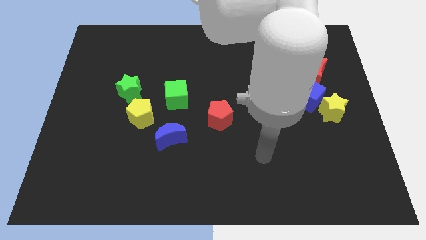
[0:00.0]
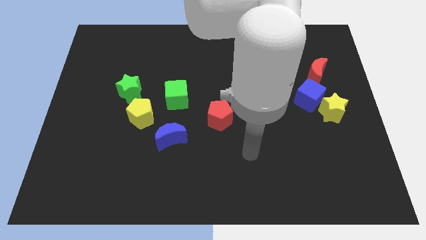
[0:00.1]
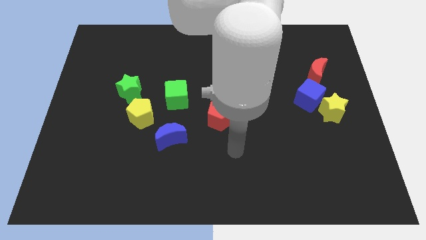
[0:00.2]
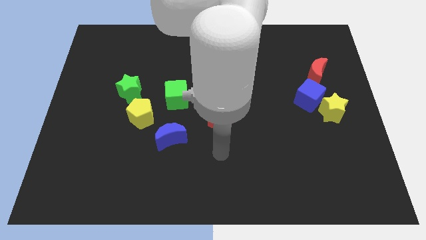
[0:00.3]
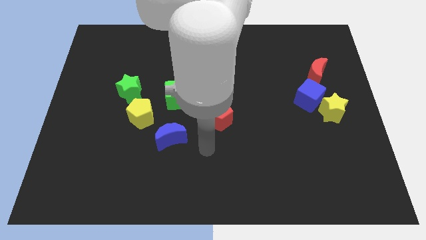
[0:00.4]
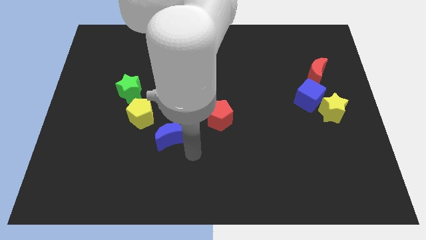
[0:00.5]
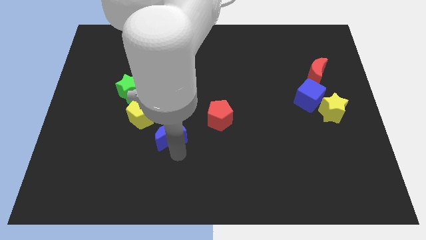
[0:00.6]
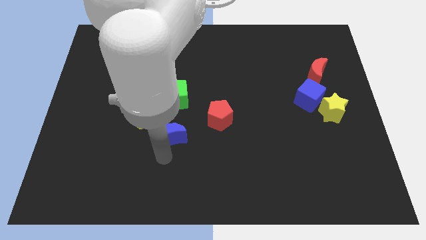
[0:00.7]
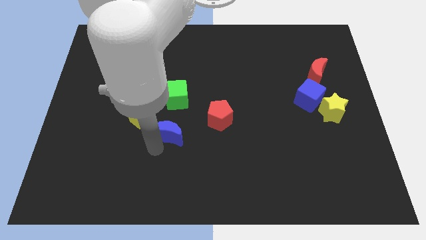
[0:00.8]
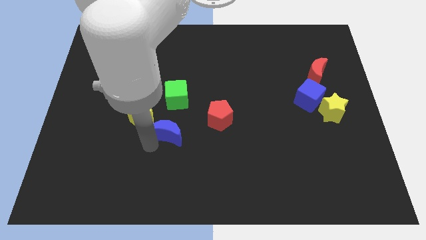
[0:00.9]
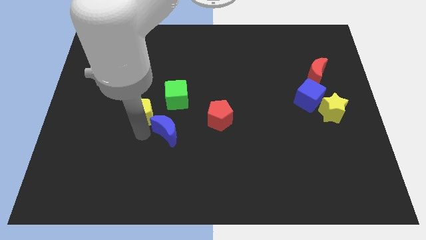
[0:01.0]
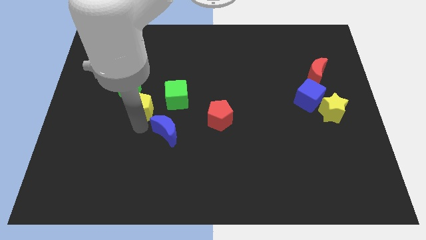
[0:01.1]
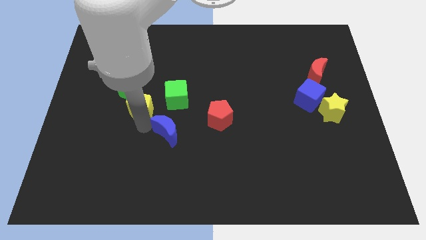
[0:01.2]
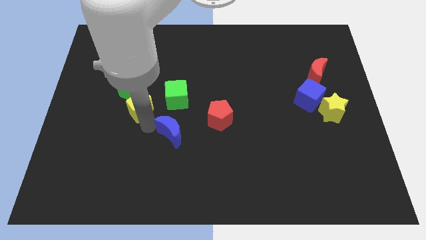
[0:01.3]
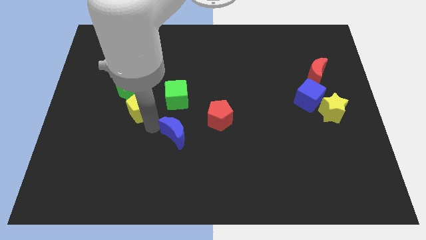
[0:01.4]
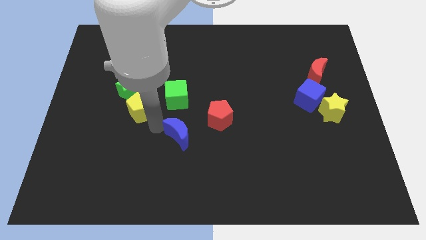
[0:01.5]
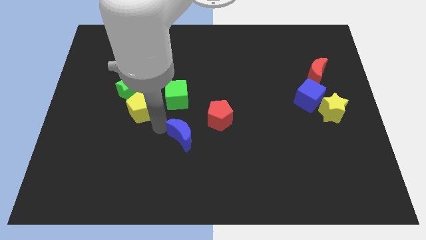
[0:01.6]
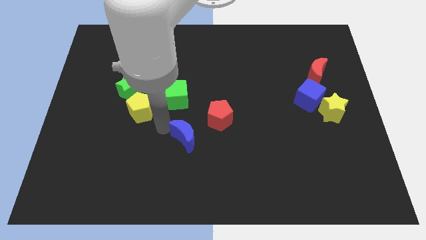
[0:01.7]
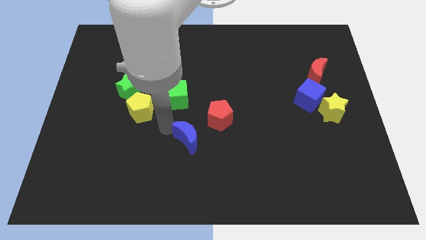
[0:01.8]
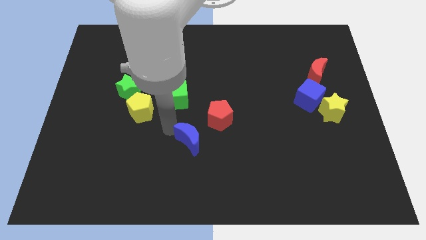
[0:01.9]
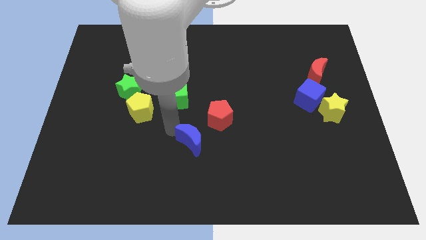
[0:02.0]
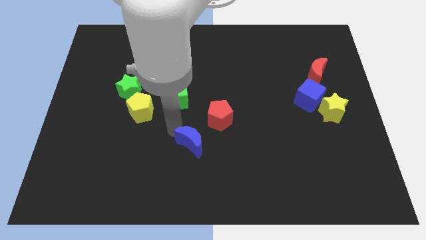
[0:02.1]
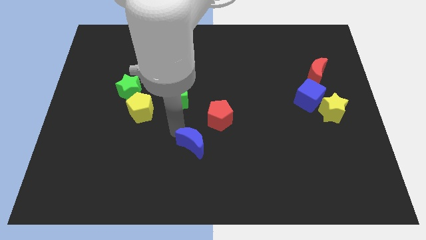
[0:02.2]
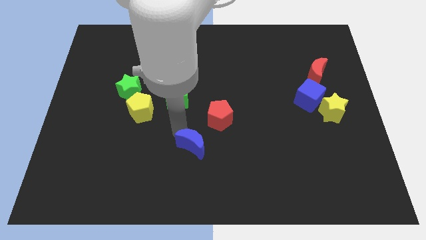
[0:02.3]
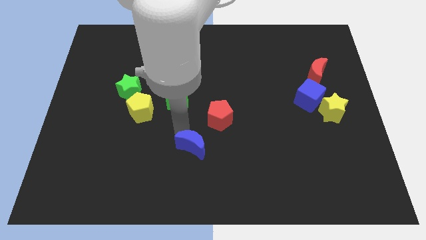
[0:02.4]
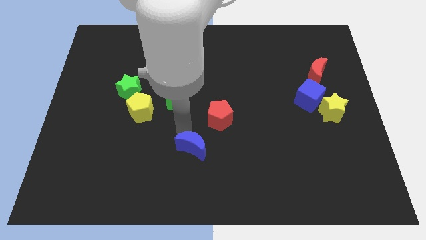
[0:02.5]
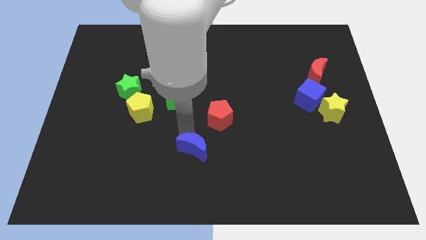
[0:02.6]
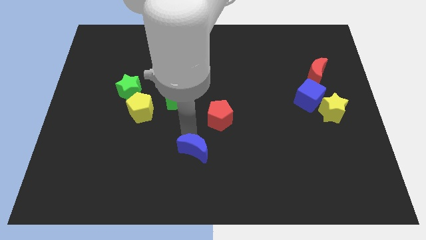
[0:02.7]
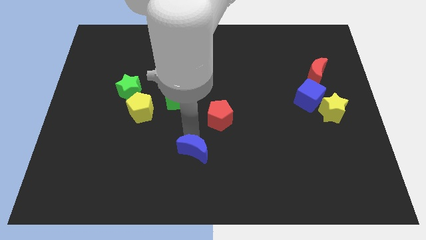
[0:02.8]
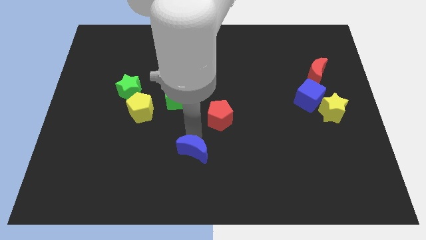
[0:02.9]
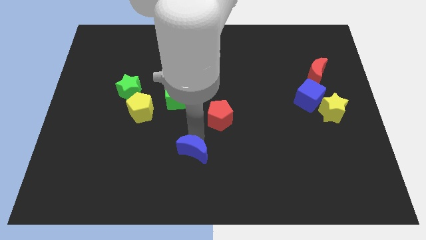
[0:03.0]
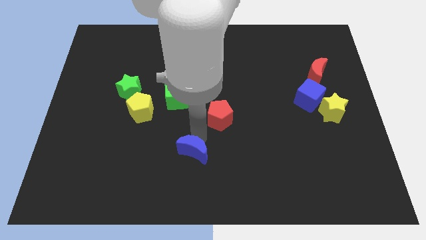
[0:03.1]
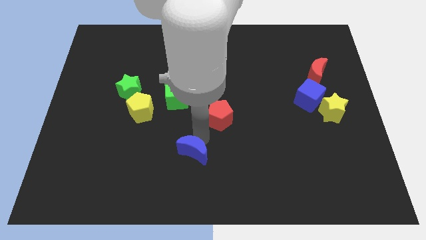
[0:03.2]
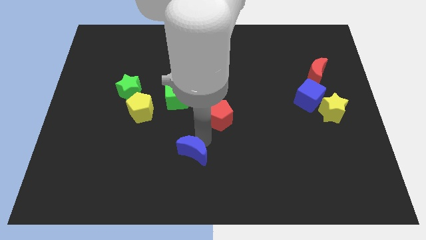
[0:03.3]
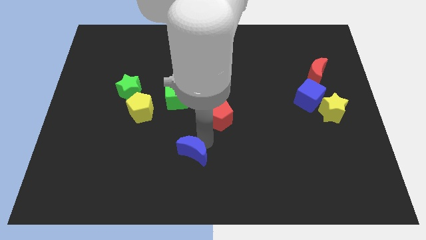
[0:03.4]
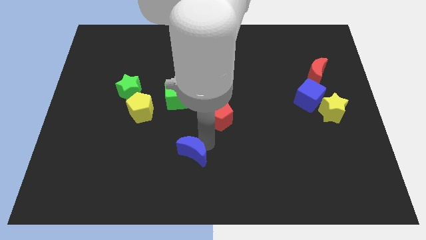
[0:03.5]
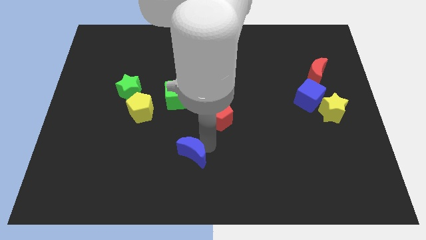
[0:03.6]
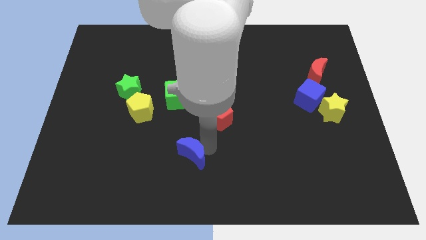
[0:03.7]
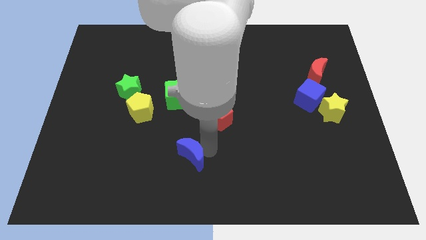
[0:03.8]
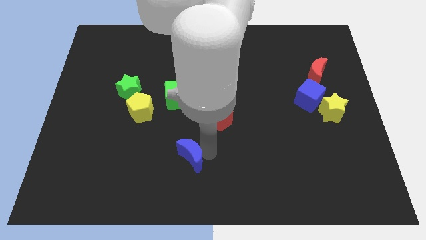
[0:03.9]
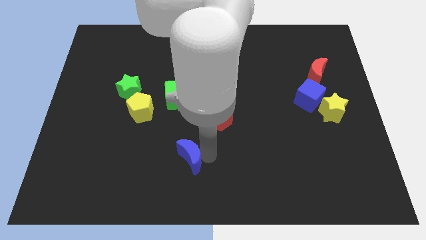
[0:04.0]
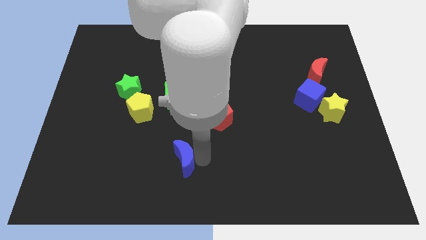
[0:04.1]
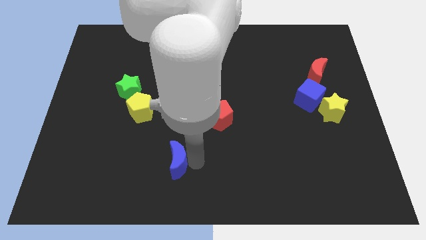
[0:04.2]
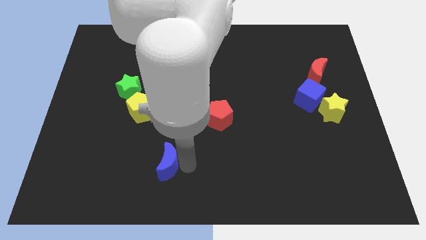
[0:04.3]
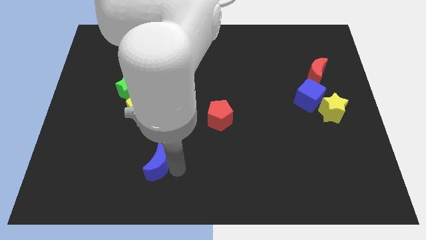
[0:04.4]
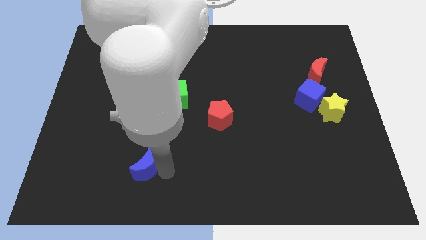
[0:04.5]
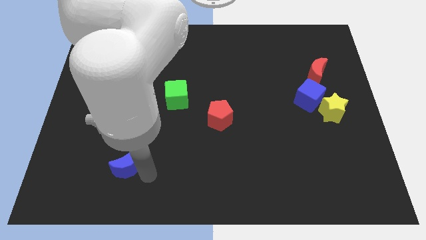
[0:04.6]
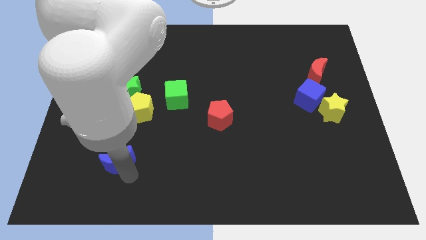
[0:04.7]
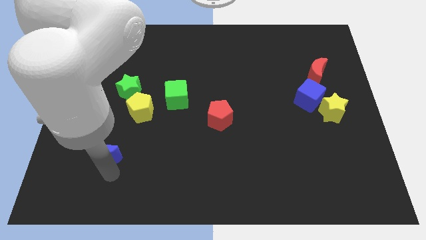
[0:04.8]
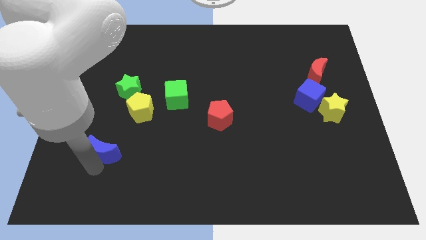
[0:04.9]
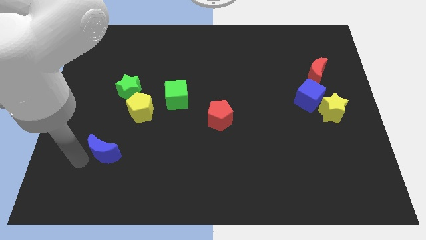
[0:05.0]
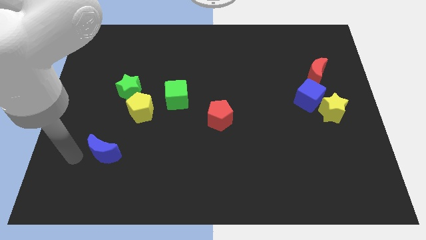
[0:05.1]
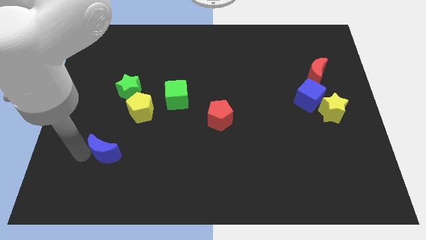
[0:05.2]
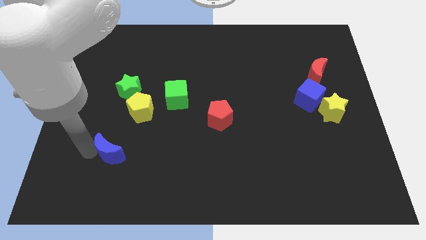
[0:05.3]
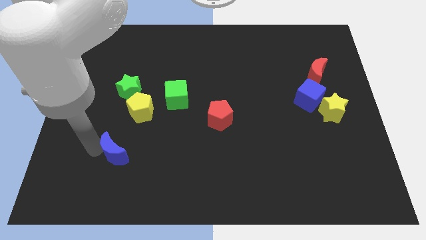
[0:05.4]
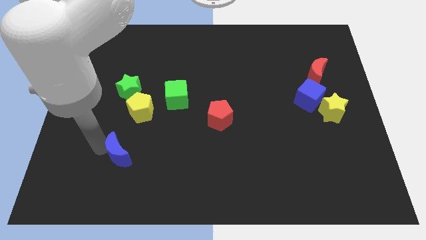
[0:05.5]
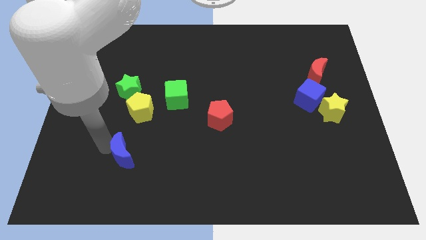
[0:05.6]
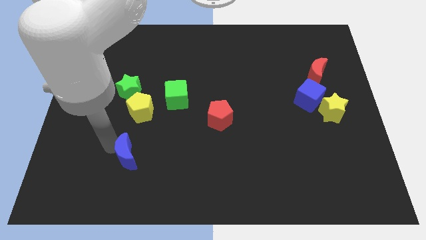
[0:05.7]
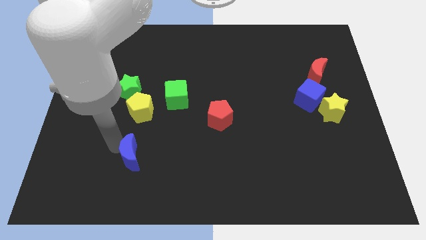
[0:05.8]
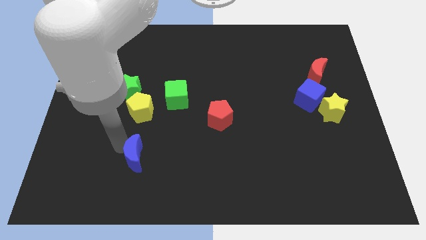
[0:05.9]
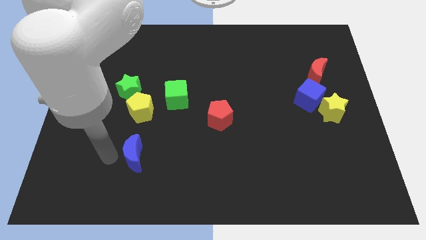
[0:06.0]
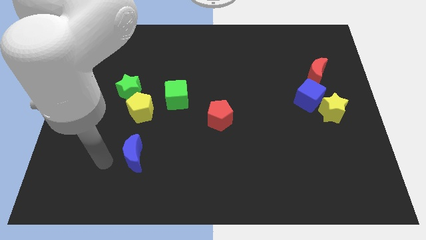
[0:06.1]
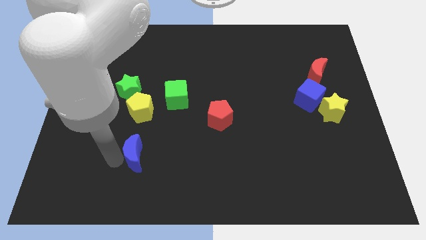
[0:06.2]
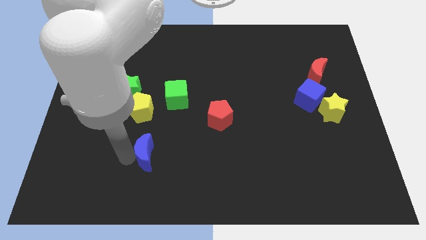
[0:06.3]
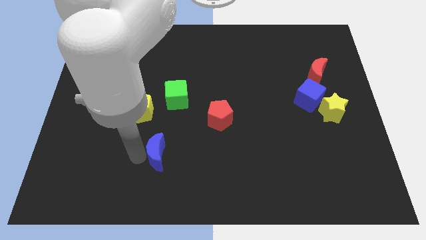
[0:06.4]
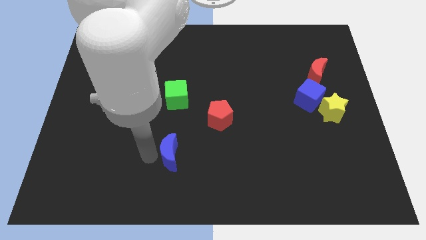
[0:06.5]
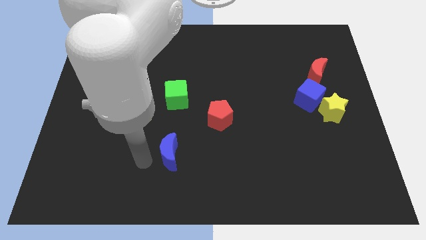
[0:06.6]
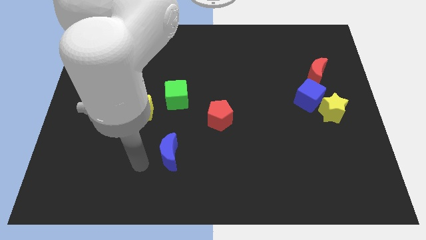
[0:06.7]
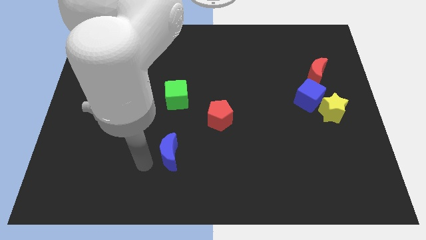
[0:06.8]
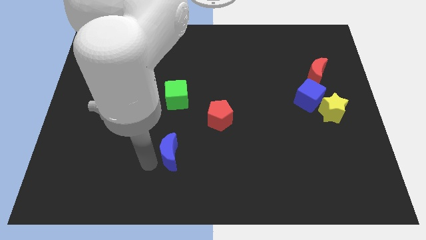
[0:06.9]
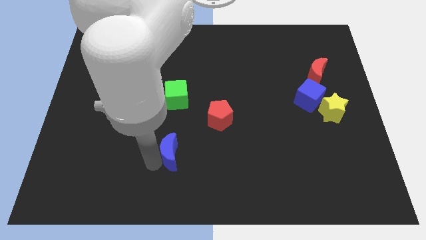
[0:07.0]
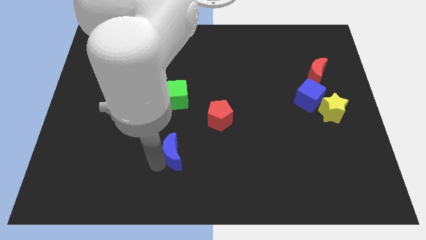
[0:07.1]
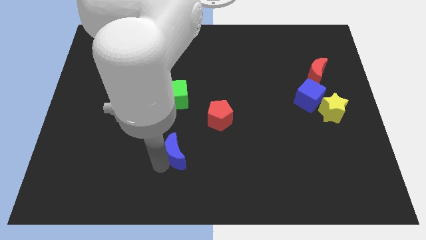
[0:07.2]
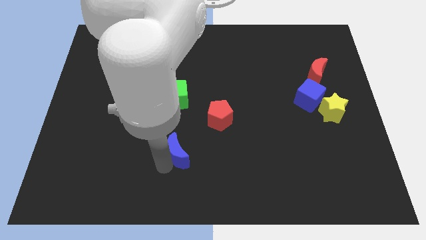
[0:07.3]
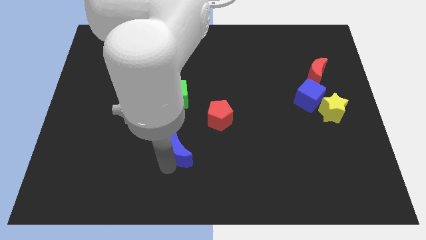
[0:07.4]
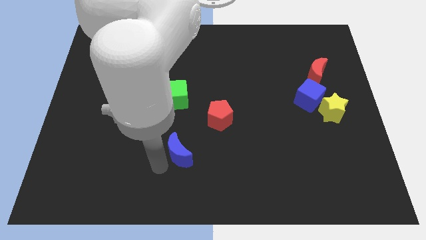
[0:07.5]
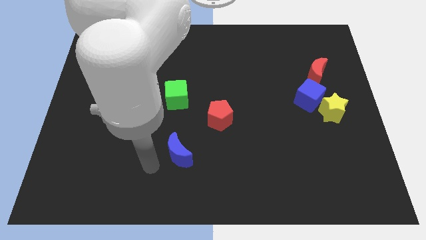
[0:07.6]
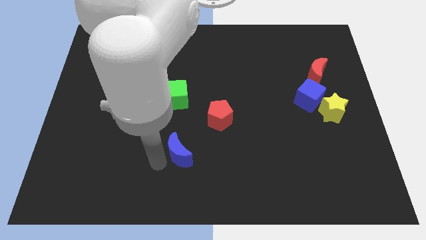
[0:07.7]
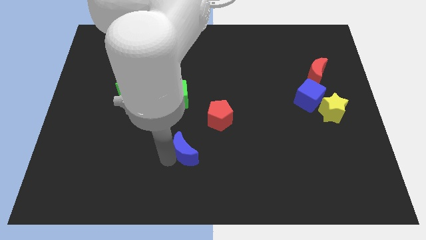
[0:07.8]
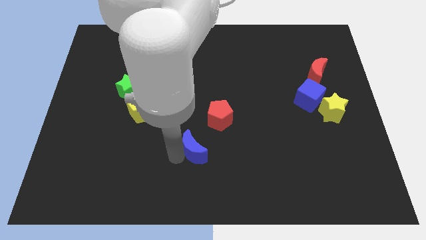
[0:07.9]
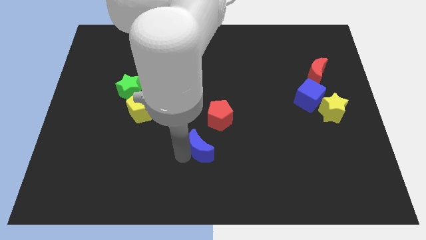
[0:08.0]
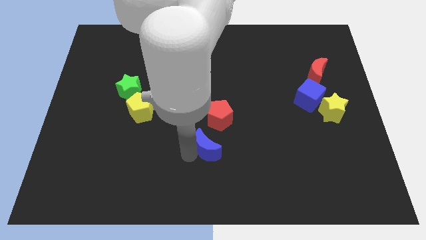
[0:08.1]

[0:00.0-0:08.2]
push the blue moon right a little bit
